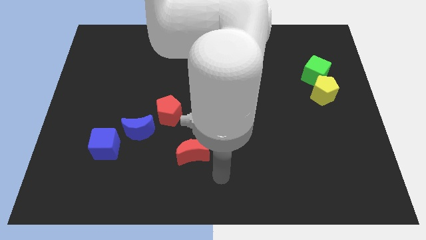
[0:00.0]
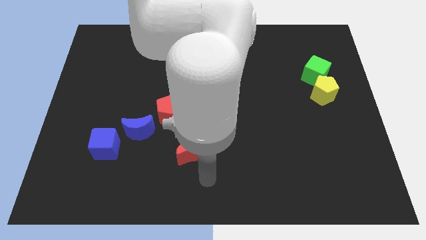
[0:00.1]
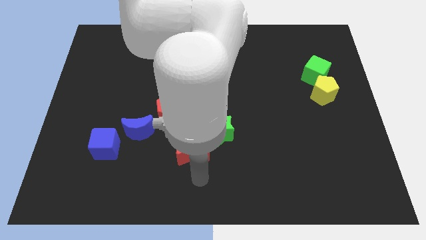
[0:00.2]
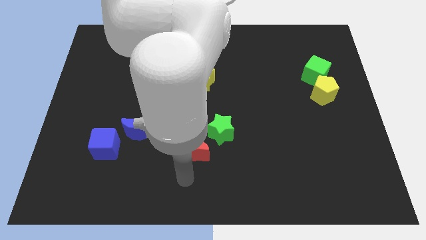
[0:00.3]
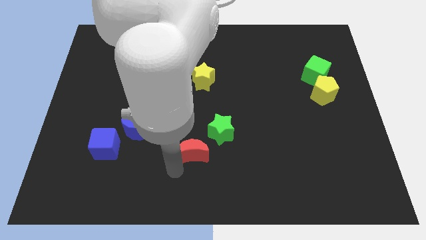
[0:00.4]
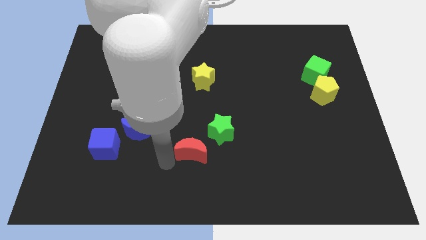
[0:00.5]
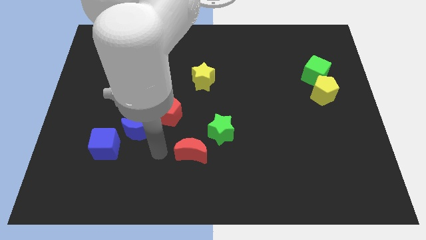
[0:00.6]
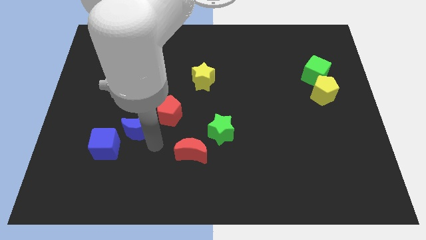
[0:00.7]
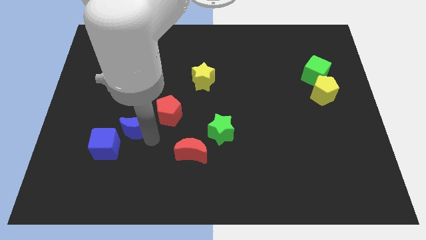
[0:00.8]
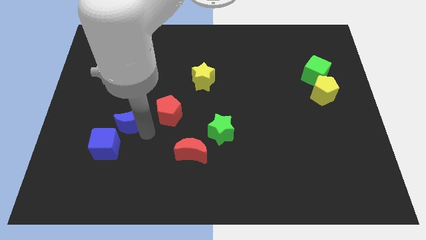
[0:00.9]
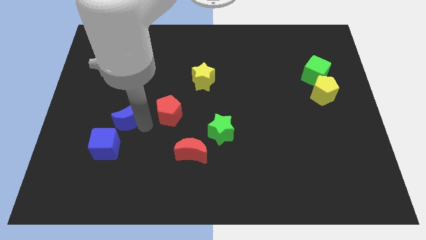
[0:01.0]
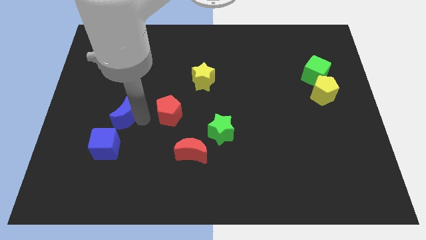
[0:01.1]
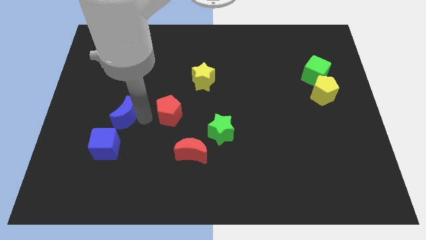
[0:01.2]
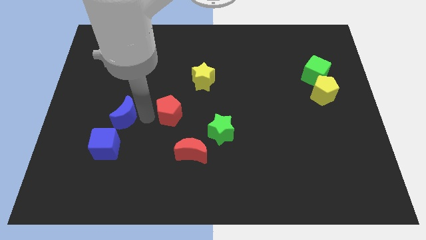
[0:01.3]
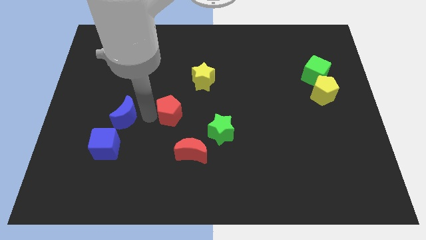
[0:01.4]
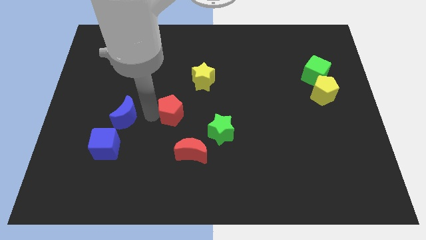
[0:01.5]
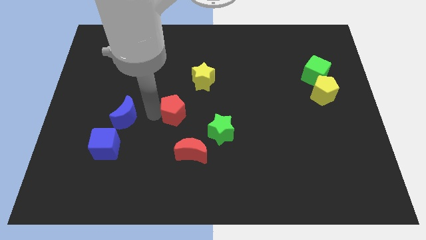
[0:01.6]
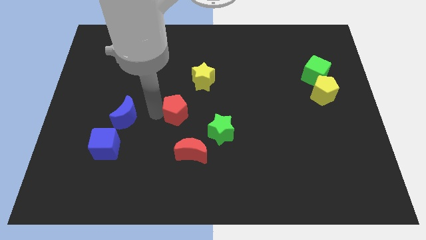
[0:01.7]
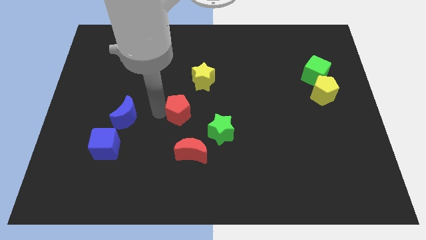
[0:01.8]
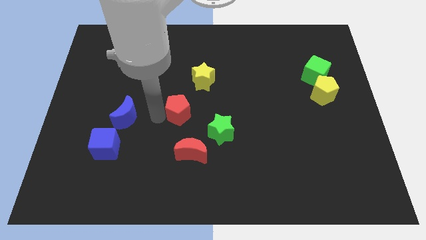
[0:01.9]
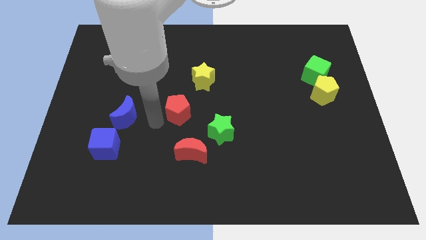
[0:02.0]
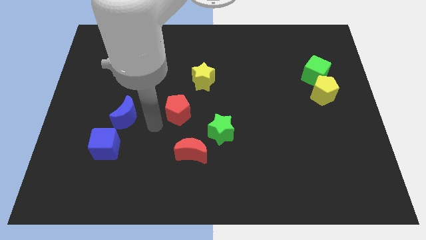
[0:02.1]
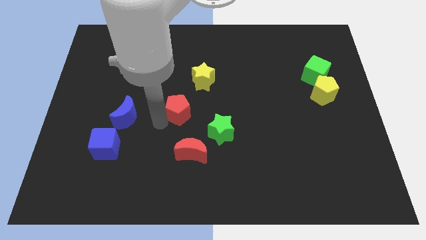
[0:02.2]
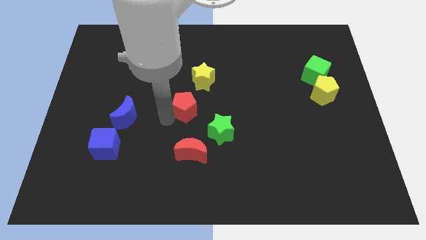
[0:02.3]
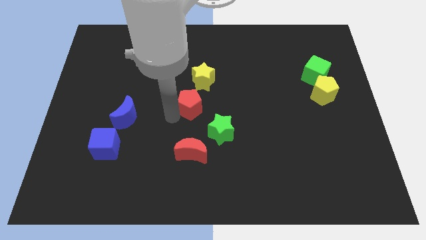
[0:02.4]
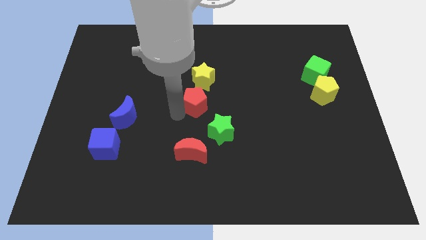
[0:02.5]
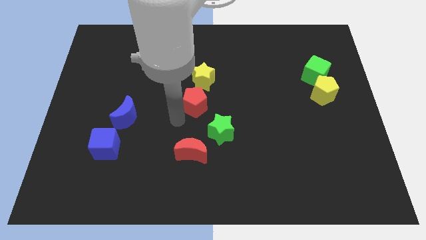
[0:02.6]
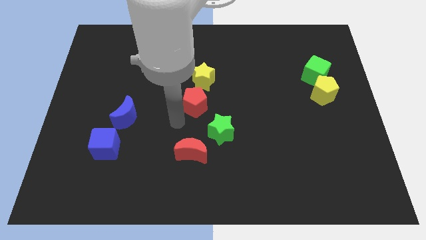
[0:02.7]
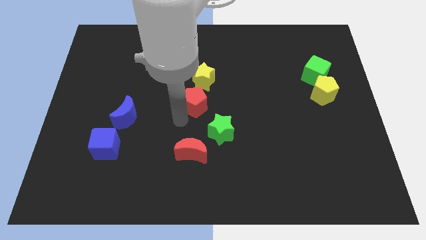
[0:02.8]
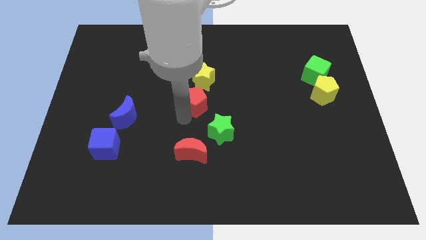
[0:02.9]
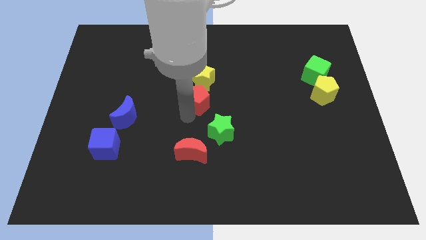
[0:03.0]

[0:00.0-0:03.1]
slide the red pentagon a little bit up and right

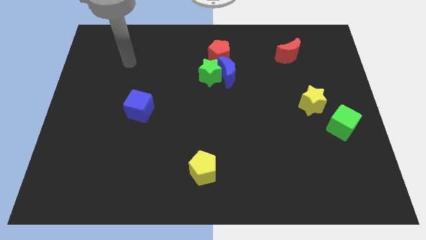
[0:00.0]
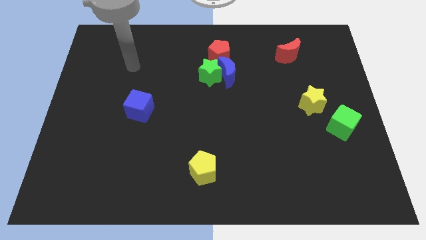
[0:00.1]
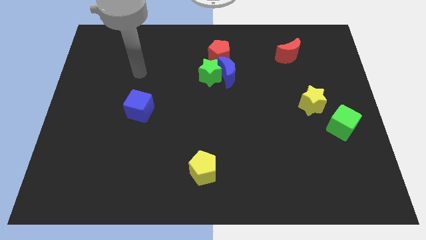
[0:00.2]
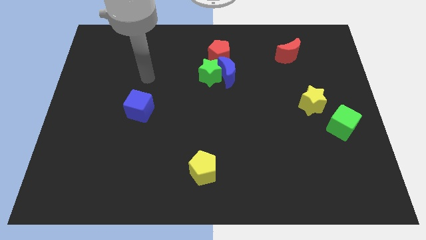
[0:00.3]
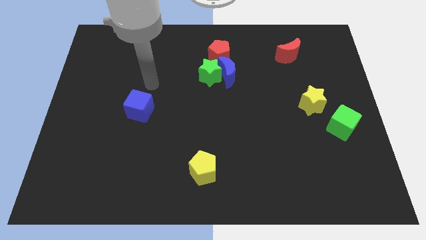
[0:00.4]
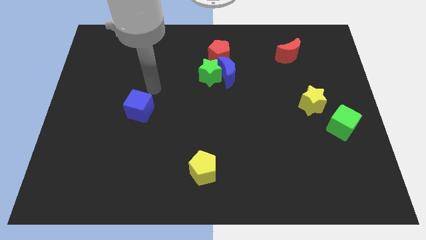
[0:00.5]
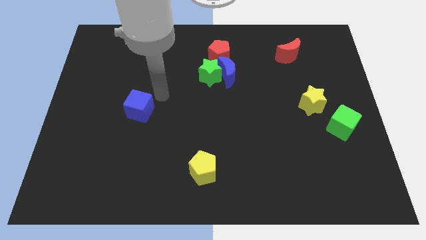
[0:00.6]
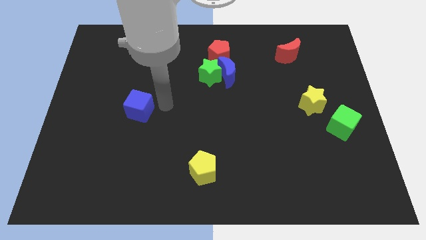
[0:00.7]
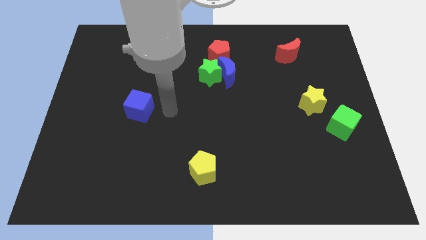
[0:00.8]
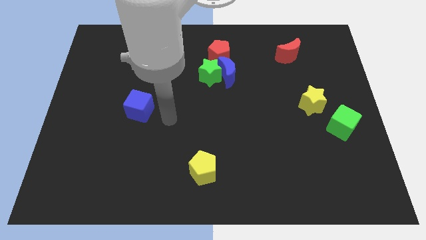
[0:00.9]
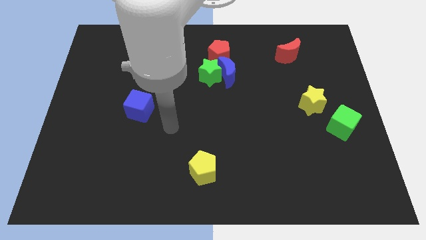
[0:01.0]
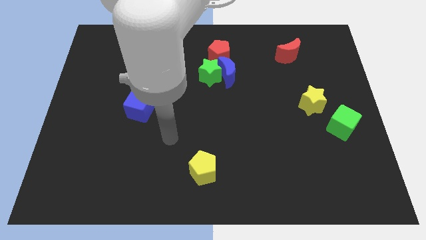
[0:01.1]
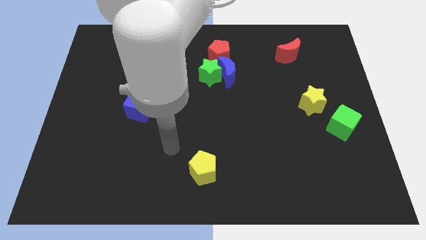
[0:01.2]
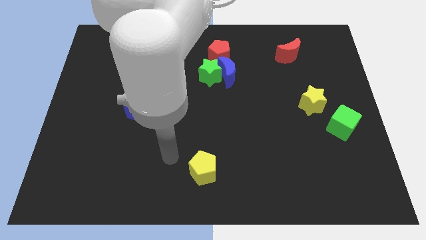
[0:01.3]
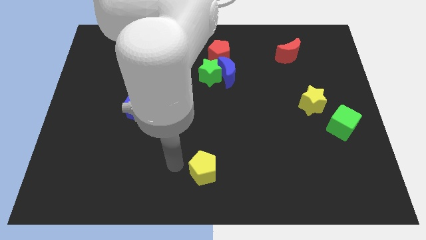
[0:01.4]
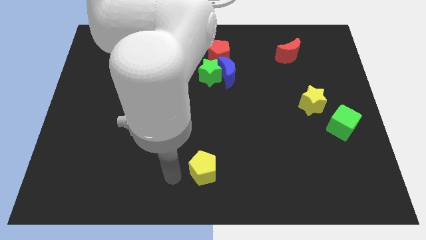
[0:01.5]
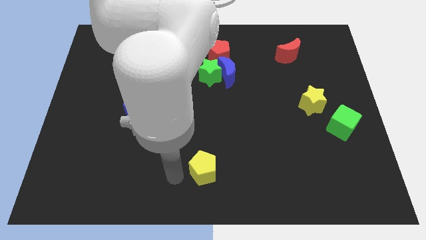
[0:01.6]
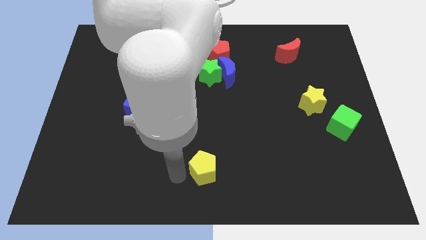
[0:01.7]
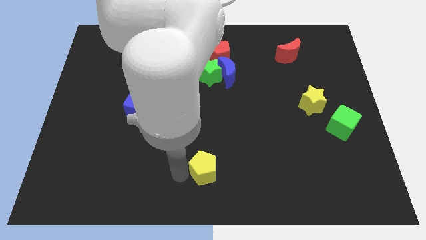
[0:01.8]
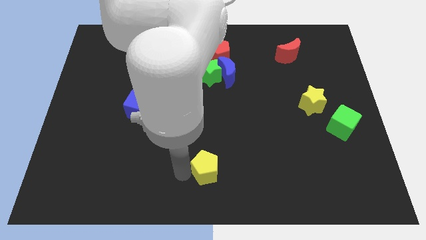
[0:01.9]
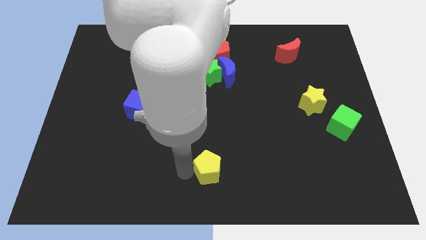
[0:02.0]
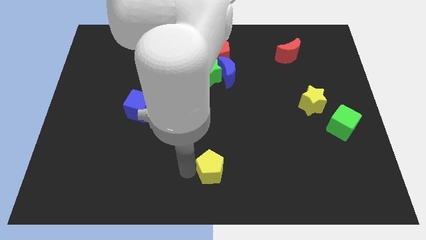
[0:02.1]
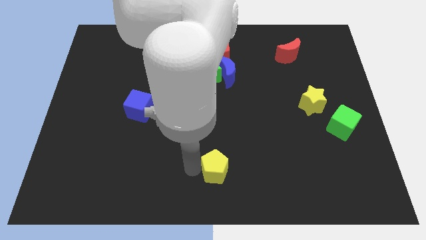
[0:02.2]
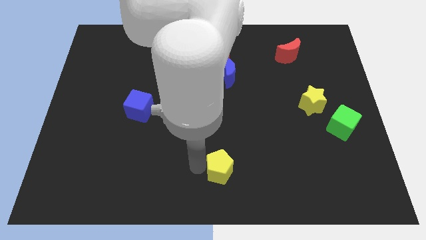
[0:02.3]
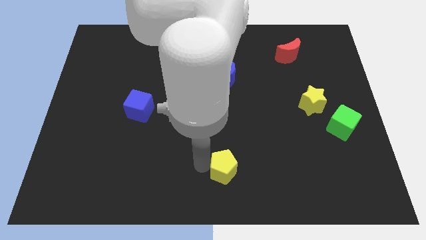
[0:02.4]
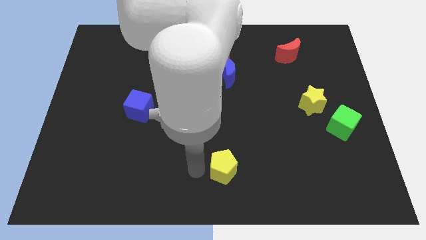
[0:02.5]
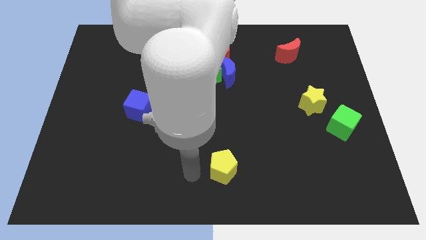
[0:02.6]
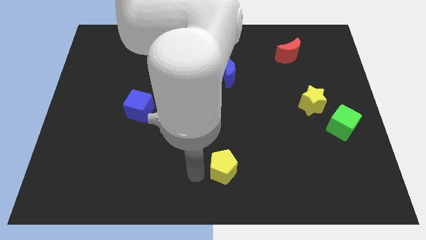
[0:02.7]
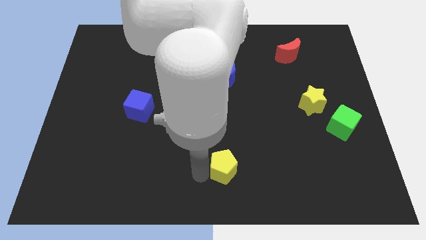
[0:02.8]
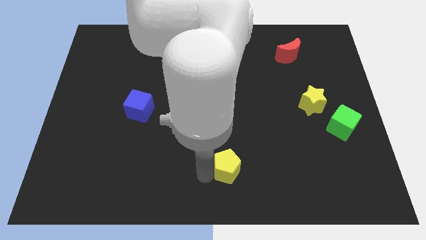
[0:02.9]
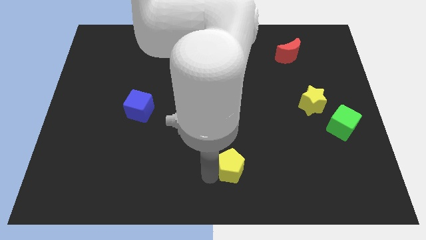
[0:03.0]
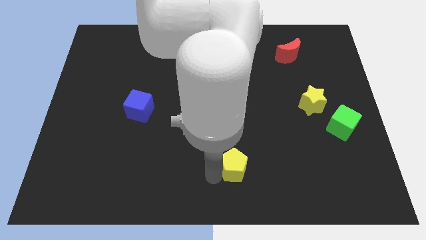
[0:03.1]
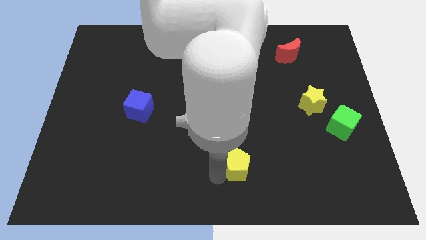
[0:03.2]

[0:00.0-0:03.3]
move the yellow pentagon to the right a little

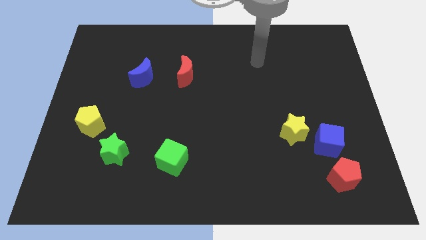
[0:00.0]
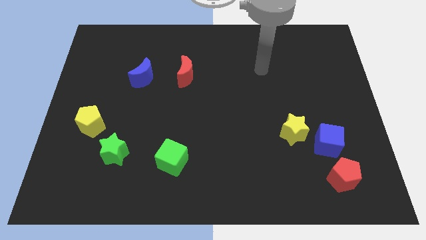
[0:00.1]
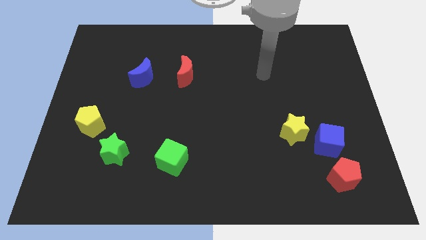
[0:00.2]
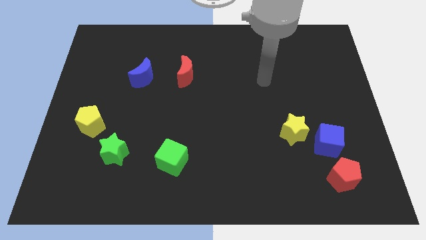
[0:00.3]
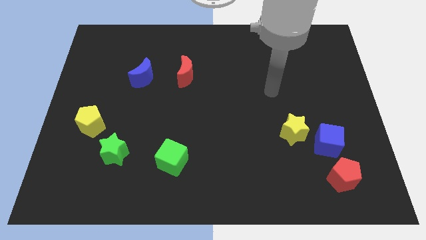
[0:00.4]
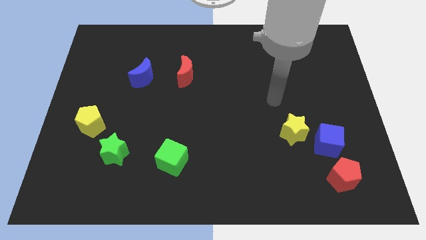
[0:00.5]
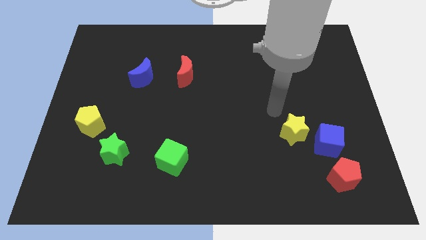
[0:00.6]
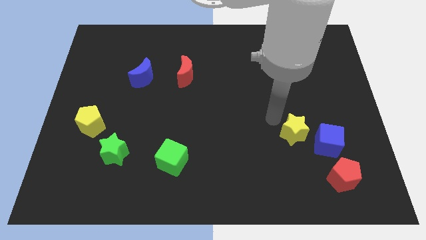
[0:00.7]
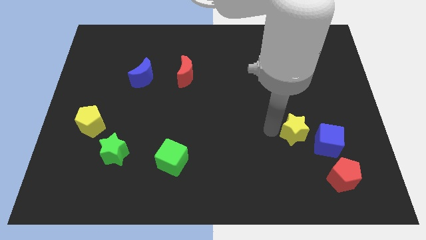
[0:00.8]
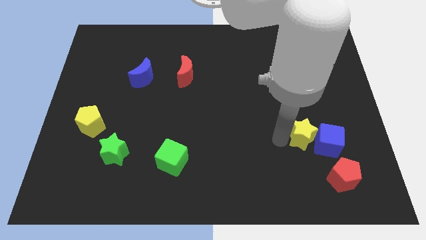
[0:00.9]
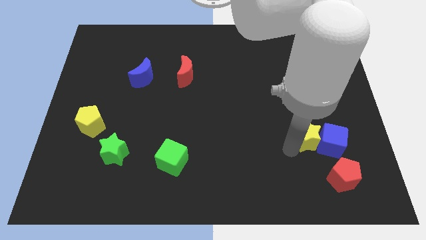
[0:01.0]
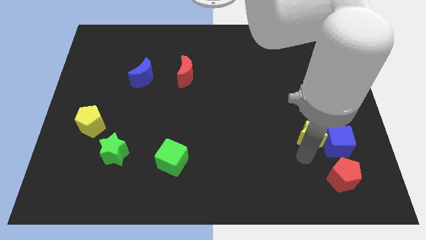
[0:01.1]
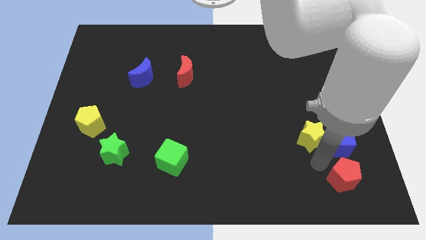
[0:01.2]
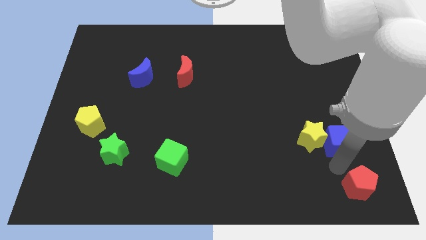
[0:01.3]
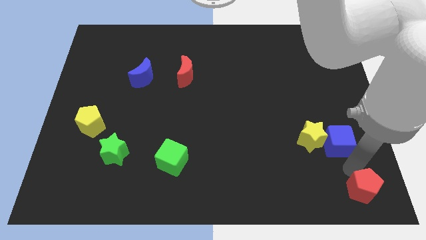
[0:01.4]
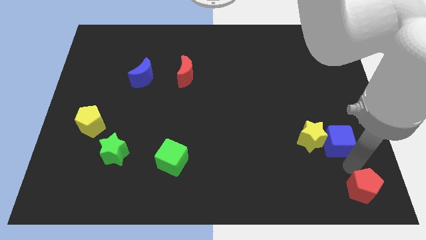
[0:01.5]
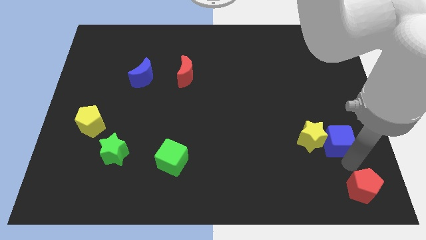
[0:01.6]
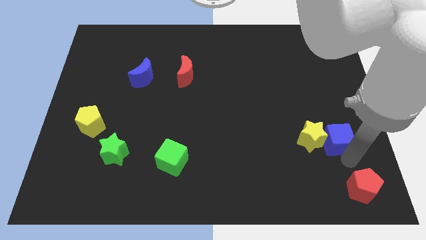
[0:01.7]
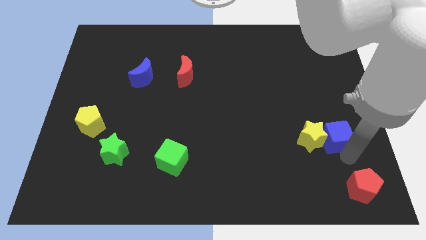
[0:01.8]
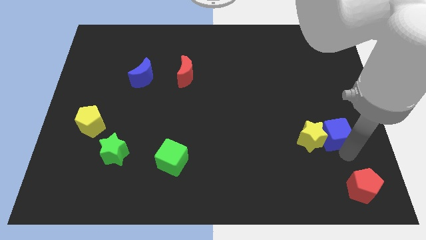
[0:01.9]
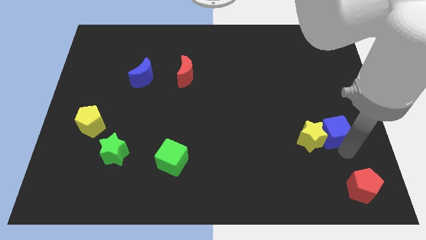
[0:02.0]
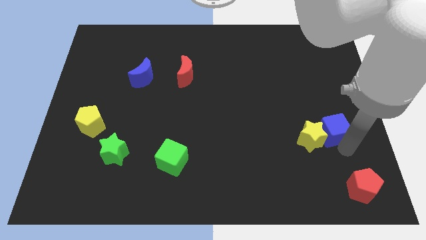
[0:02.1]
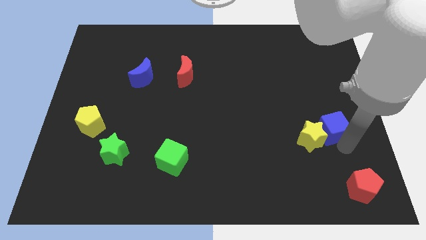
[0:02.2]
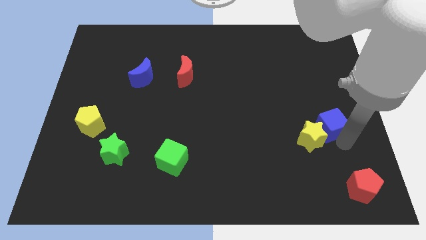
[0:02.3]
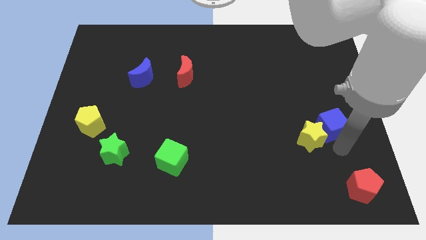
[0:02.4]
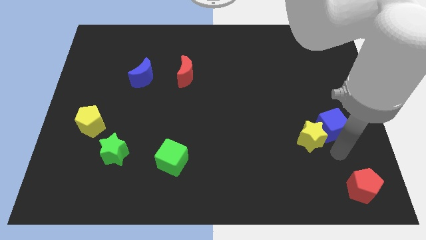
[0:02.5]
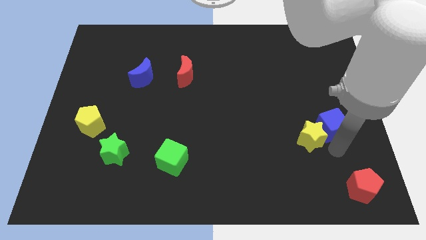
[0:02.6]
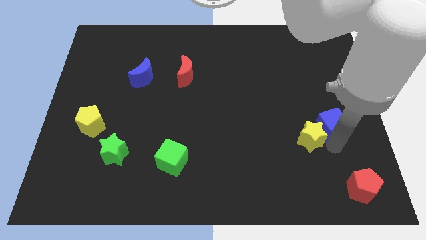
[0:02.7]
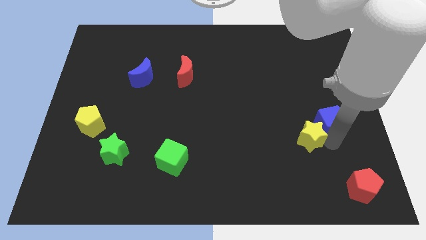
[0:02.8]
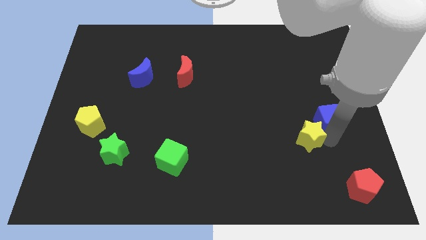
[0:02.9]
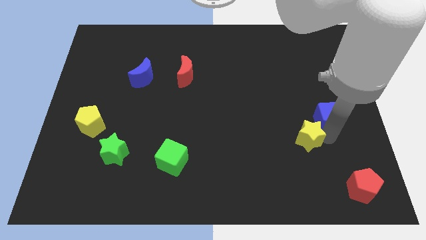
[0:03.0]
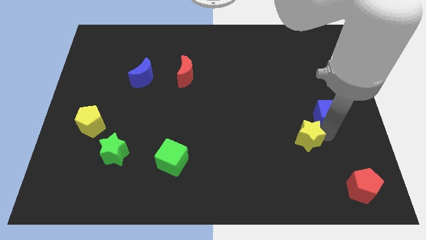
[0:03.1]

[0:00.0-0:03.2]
push the blue cube upwards a little bit
